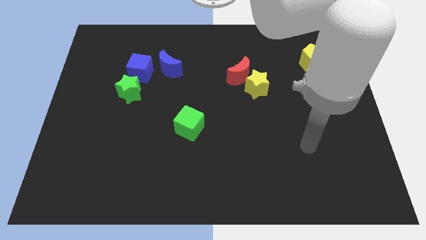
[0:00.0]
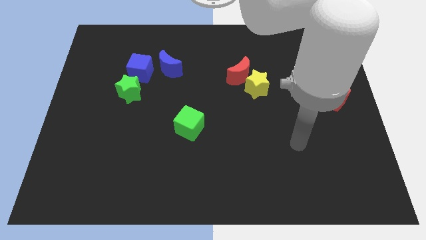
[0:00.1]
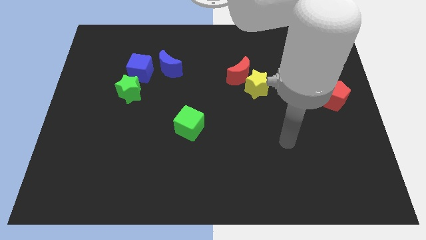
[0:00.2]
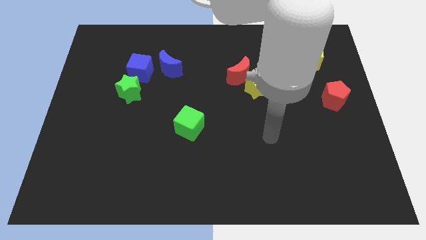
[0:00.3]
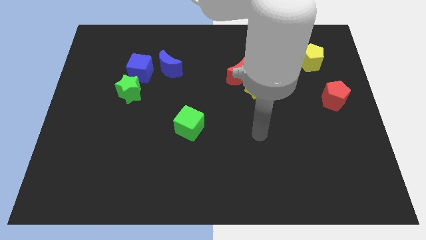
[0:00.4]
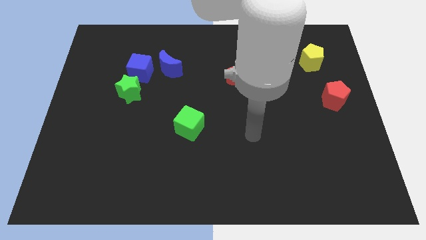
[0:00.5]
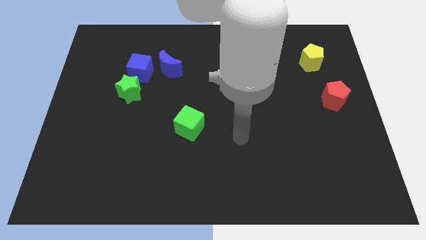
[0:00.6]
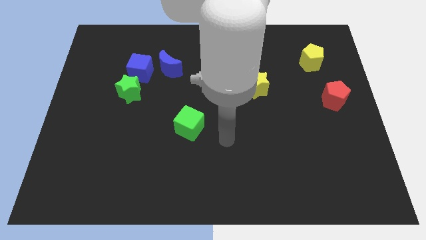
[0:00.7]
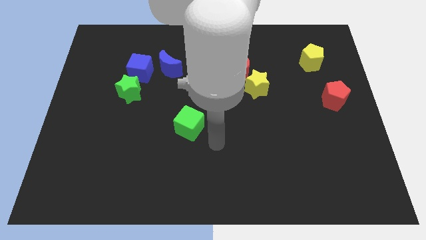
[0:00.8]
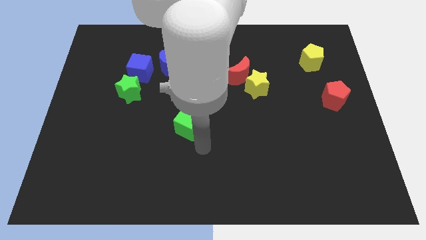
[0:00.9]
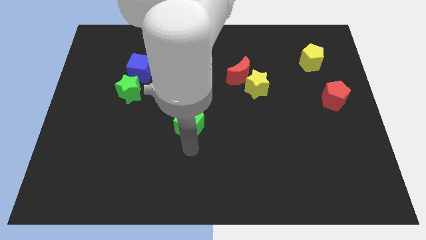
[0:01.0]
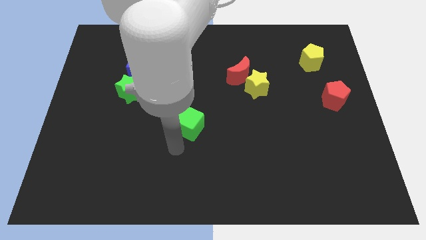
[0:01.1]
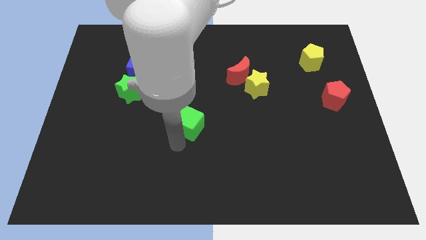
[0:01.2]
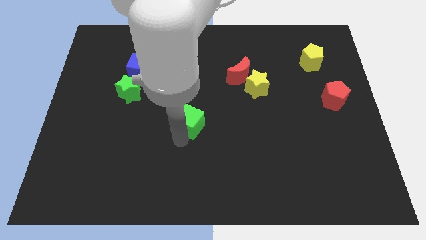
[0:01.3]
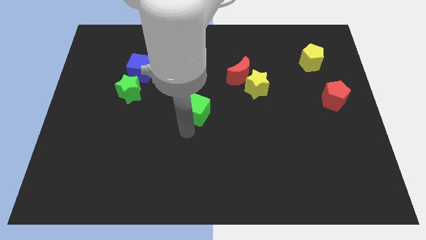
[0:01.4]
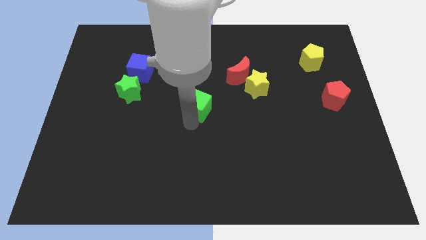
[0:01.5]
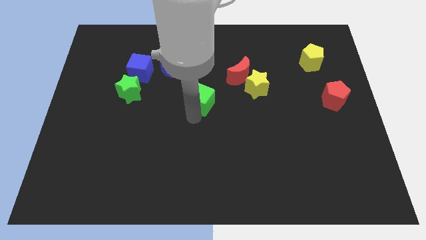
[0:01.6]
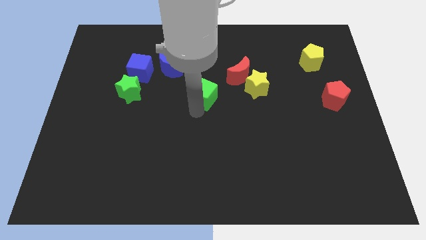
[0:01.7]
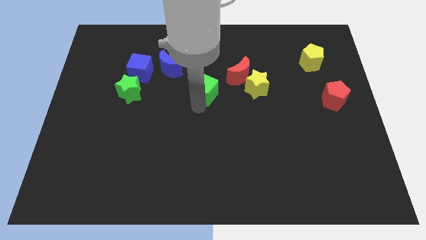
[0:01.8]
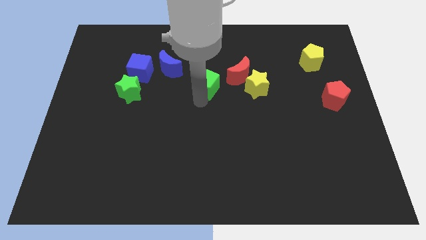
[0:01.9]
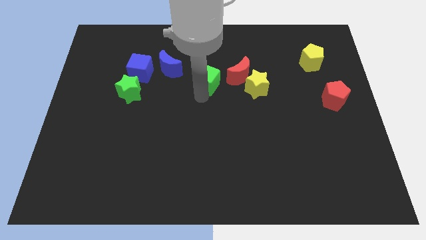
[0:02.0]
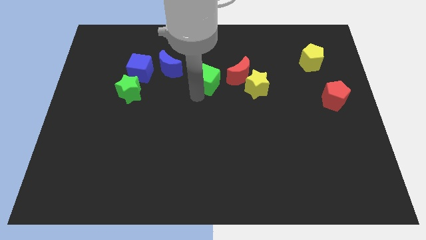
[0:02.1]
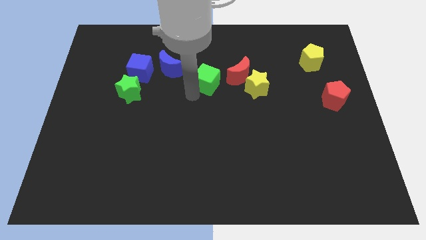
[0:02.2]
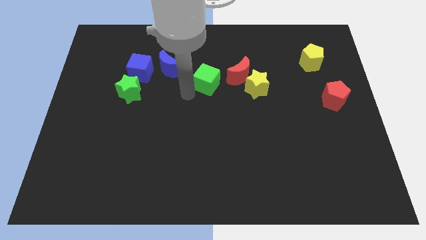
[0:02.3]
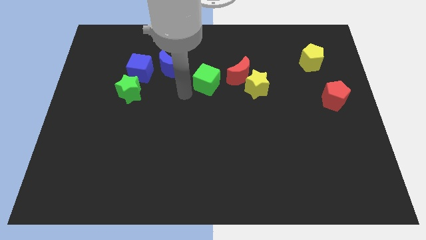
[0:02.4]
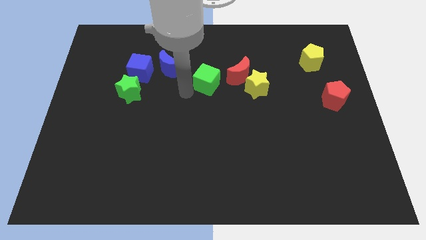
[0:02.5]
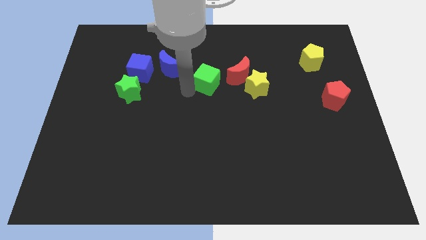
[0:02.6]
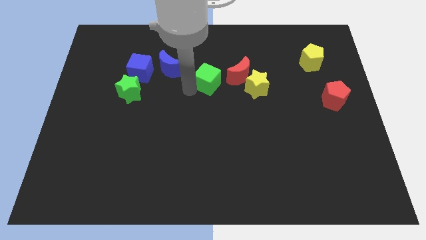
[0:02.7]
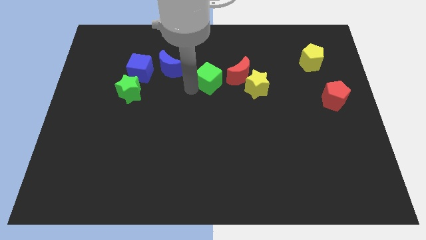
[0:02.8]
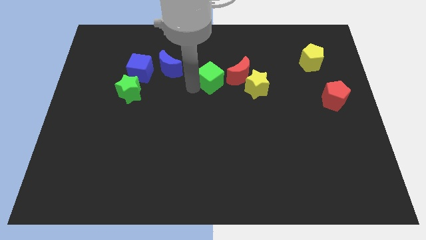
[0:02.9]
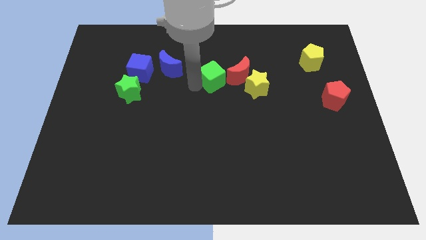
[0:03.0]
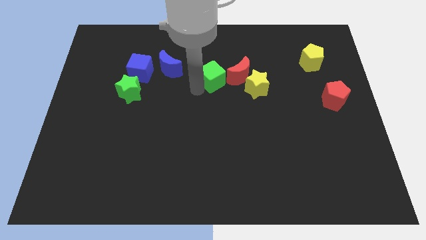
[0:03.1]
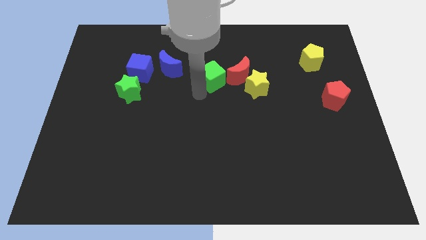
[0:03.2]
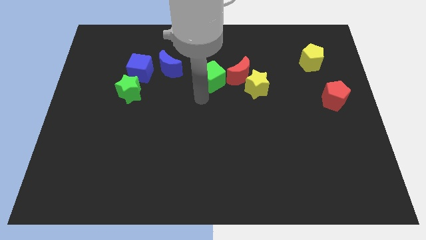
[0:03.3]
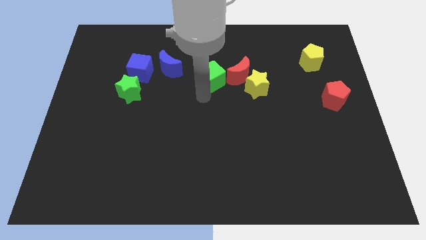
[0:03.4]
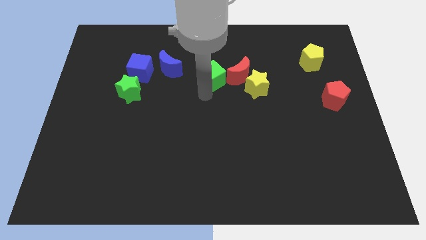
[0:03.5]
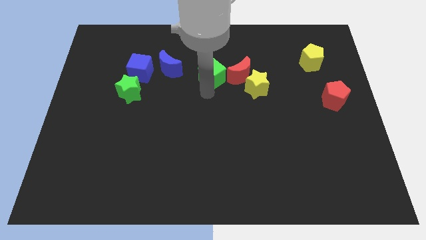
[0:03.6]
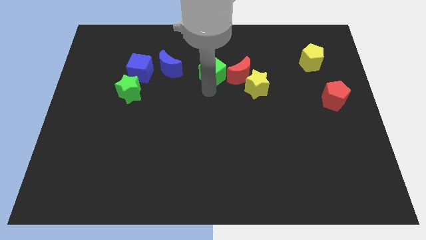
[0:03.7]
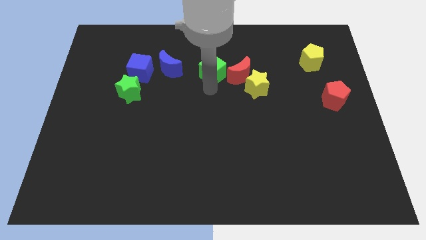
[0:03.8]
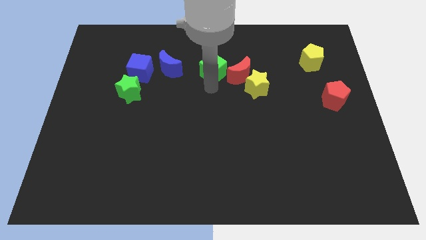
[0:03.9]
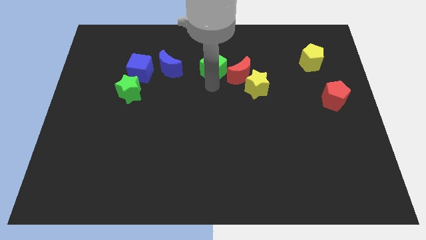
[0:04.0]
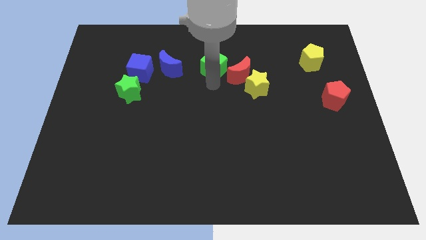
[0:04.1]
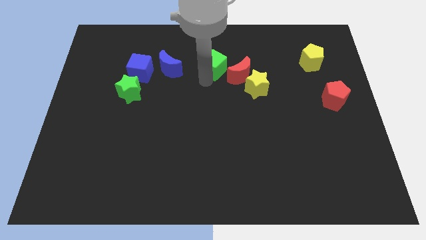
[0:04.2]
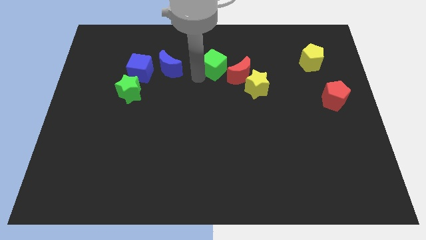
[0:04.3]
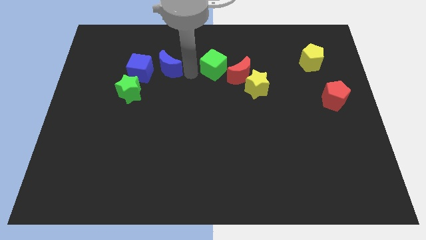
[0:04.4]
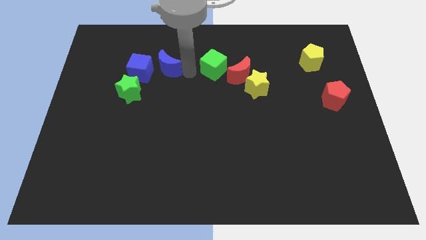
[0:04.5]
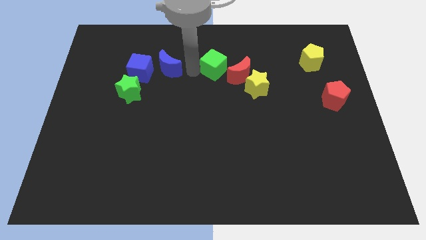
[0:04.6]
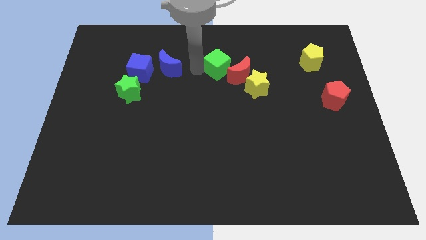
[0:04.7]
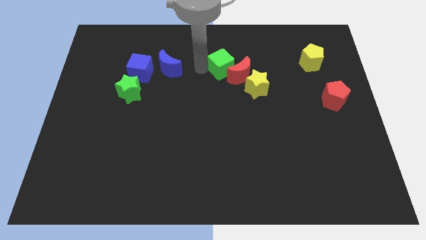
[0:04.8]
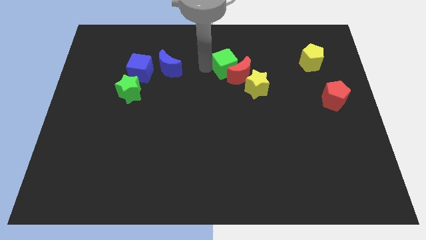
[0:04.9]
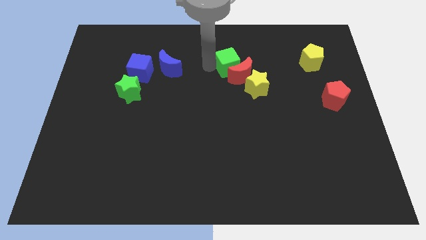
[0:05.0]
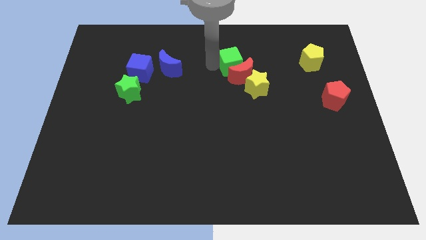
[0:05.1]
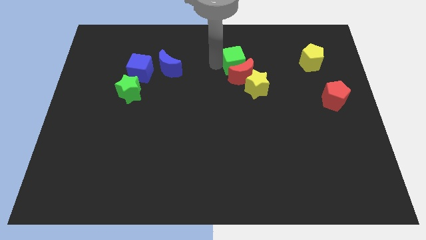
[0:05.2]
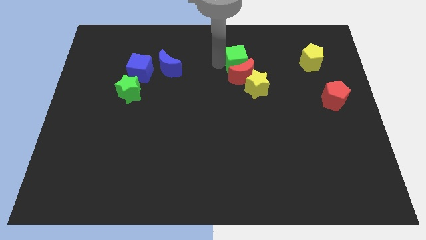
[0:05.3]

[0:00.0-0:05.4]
move the green cube to the top right side of the red moon

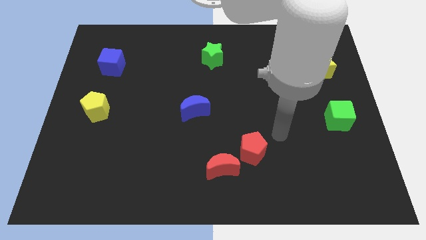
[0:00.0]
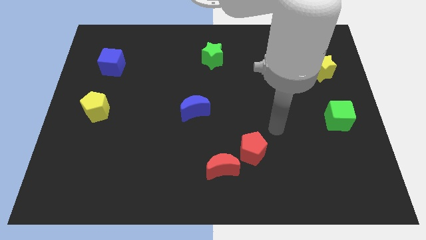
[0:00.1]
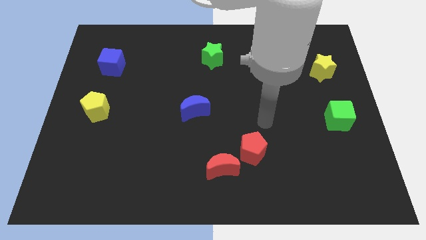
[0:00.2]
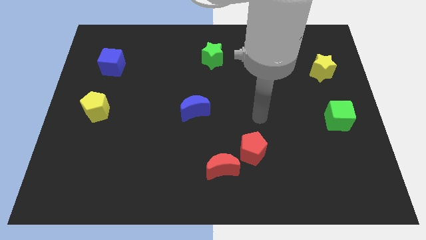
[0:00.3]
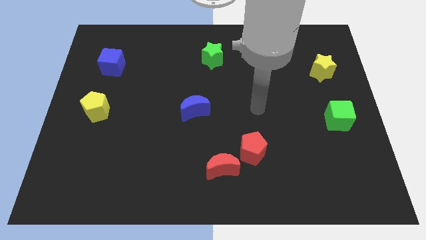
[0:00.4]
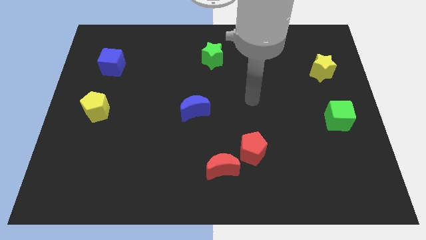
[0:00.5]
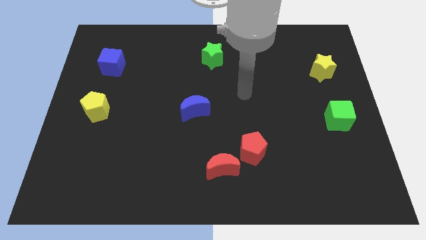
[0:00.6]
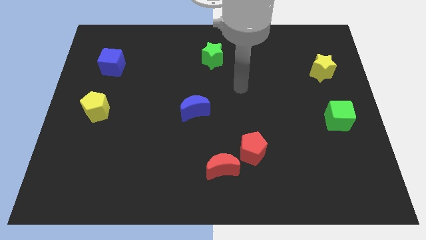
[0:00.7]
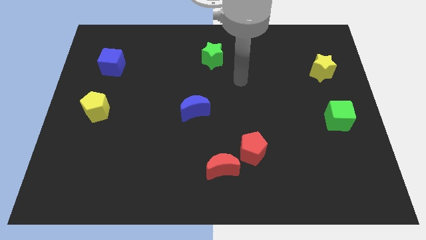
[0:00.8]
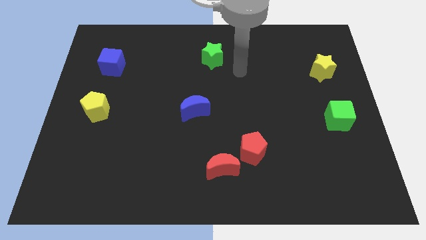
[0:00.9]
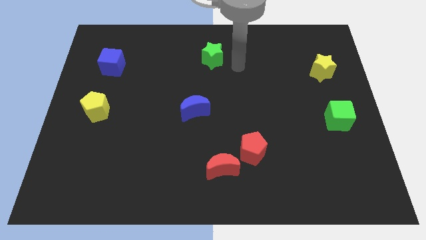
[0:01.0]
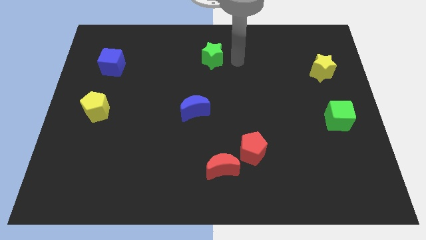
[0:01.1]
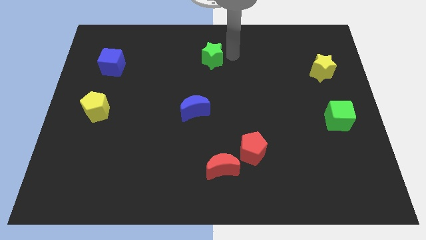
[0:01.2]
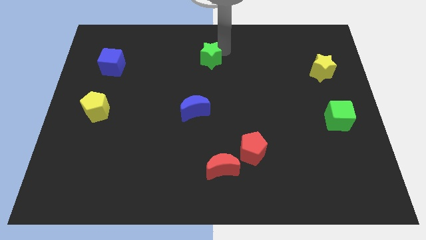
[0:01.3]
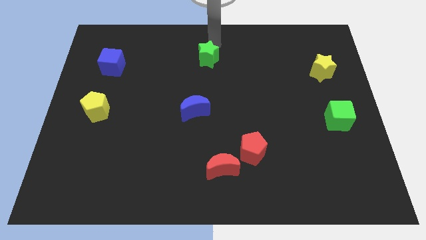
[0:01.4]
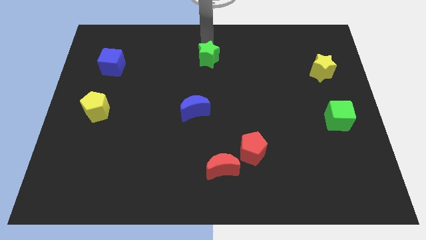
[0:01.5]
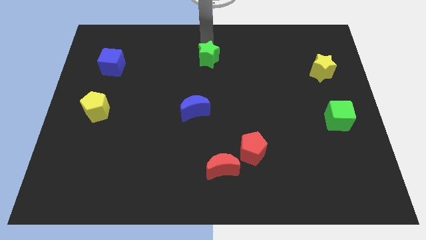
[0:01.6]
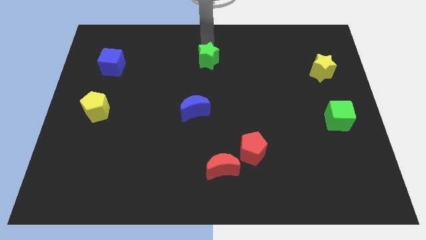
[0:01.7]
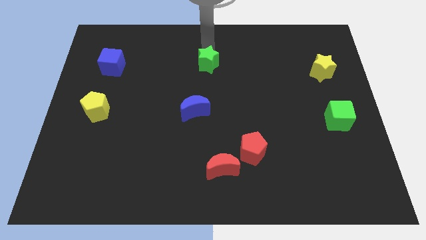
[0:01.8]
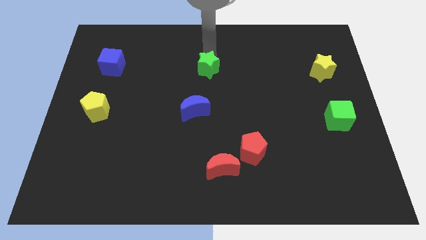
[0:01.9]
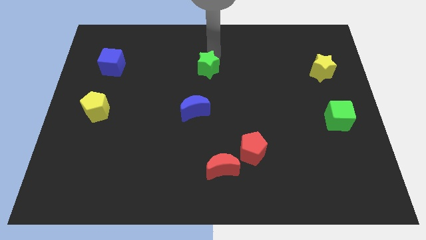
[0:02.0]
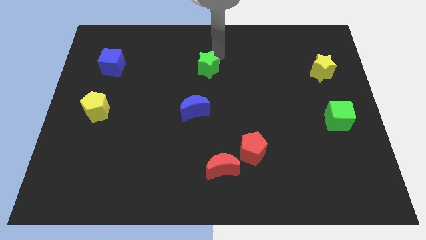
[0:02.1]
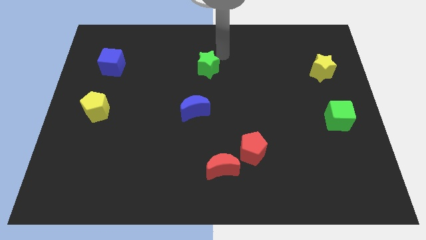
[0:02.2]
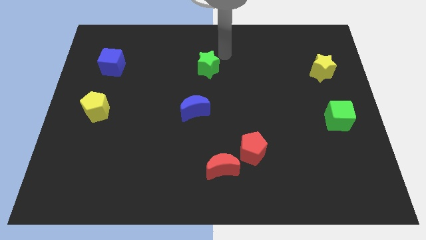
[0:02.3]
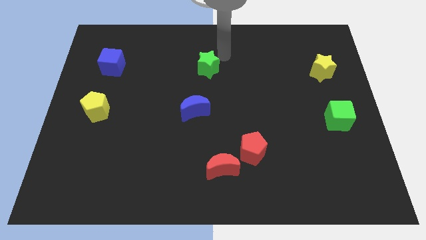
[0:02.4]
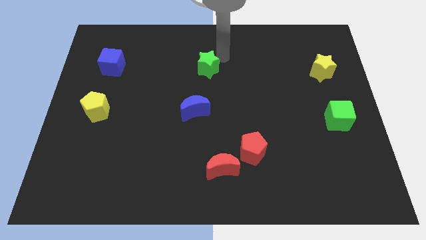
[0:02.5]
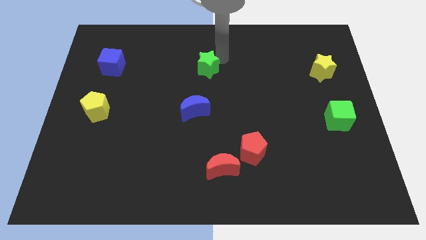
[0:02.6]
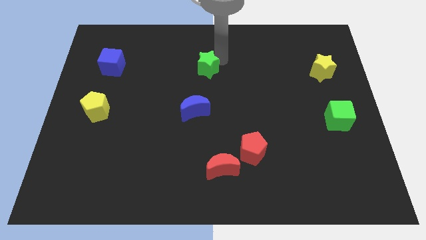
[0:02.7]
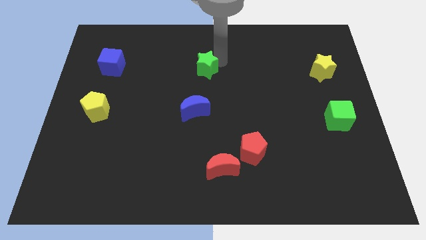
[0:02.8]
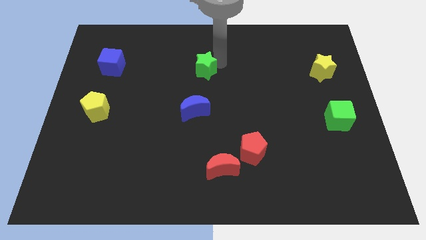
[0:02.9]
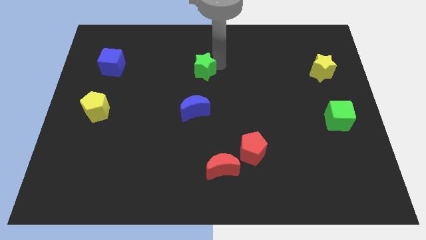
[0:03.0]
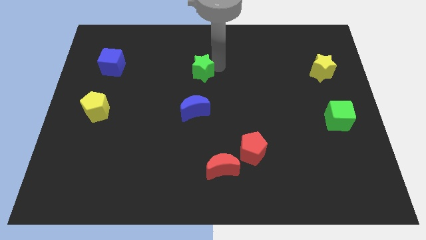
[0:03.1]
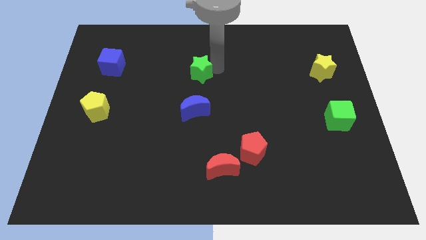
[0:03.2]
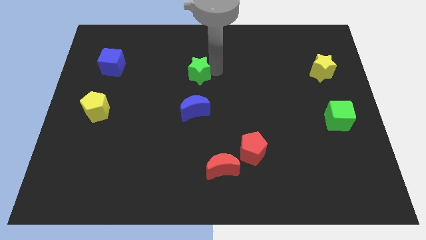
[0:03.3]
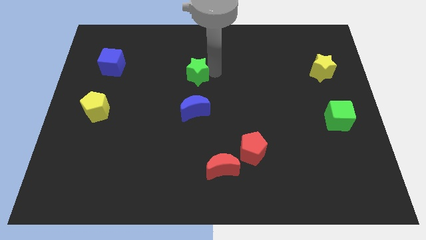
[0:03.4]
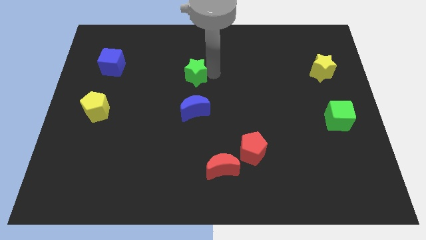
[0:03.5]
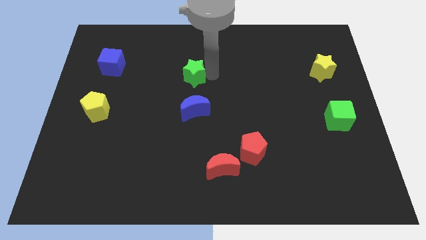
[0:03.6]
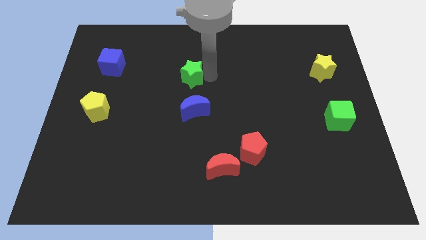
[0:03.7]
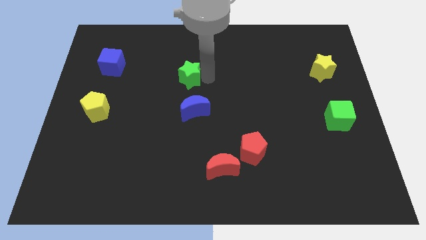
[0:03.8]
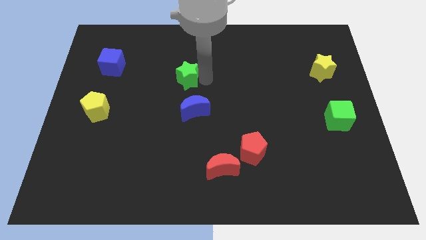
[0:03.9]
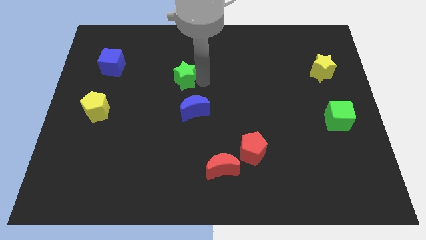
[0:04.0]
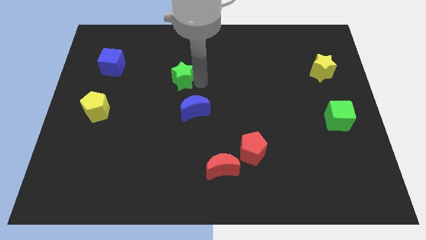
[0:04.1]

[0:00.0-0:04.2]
slide the green star to the top left of the blue moon
